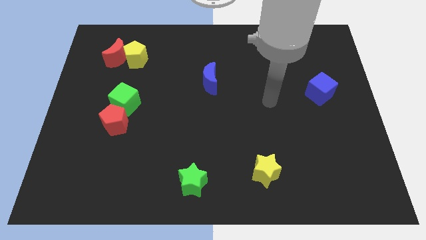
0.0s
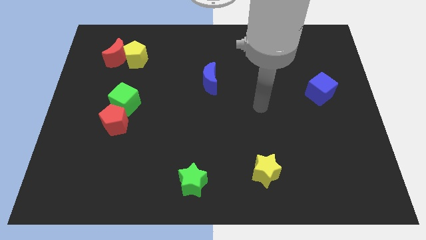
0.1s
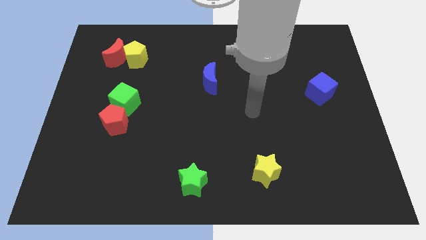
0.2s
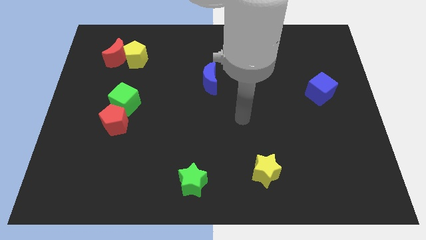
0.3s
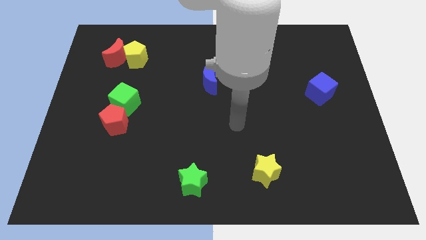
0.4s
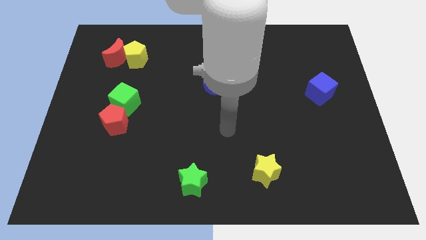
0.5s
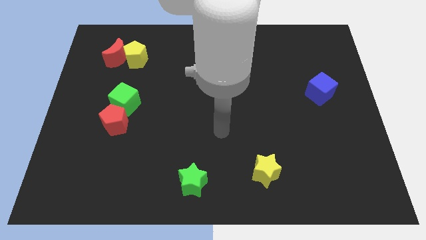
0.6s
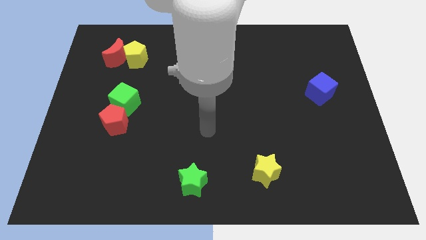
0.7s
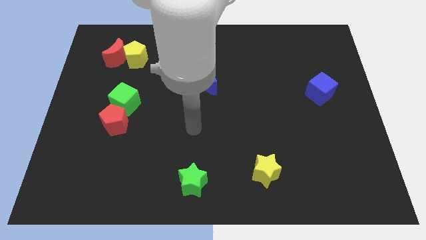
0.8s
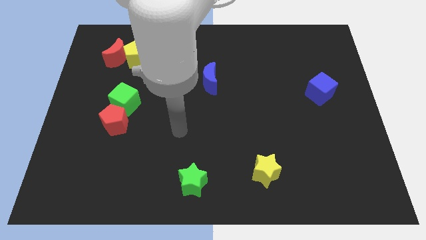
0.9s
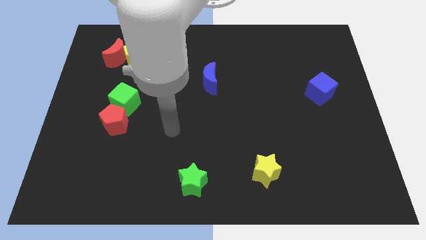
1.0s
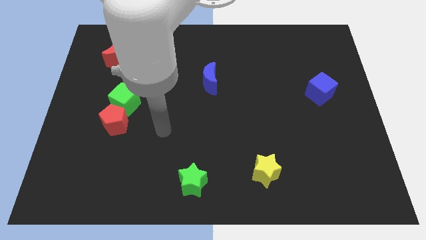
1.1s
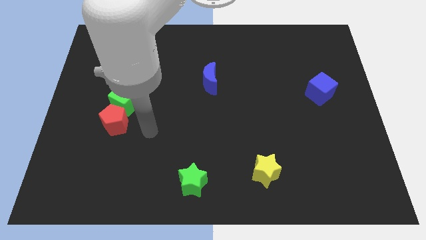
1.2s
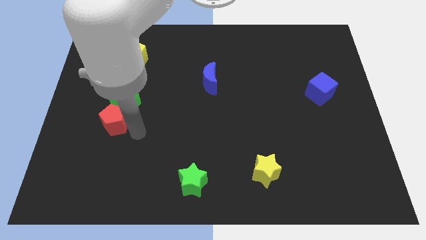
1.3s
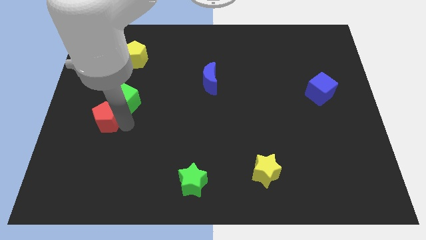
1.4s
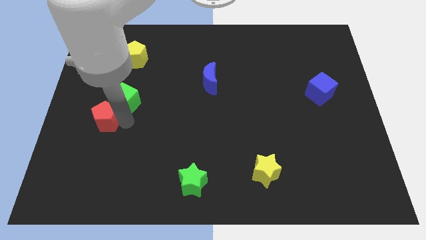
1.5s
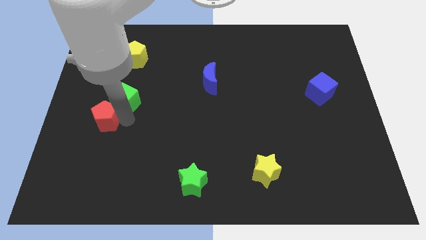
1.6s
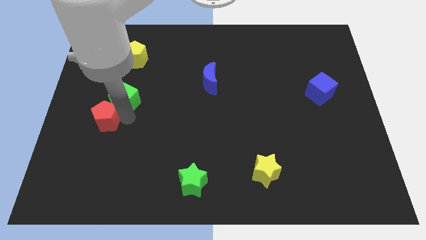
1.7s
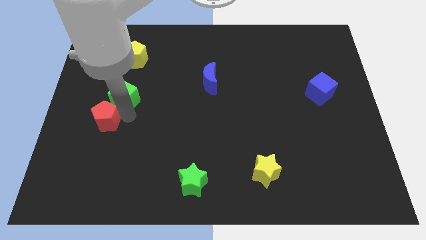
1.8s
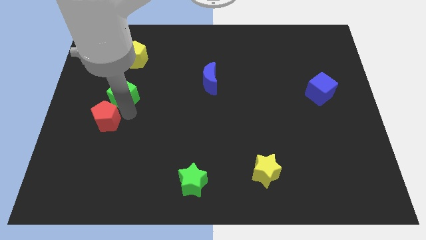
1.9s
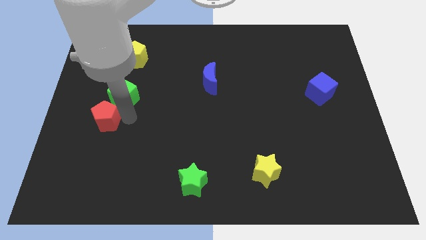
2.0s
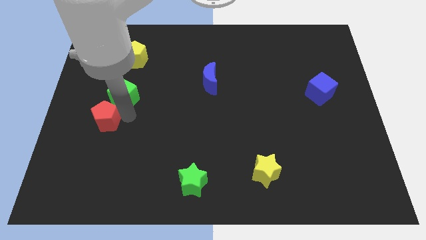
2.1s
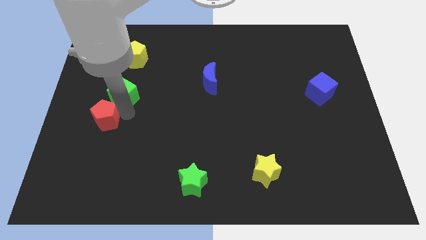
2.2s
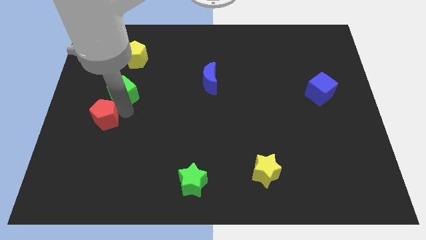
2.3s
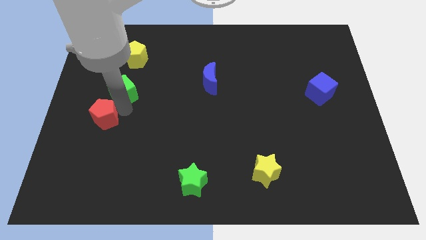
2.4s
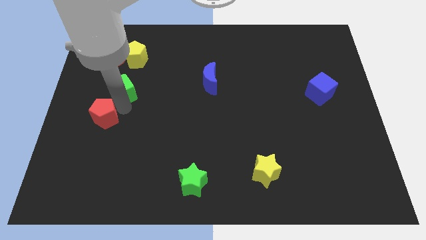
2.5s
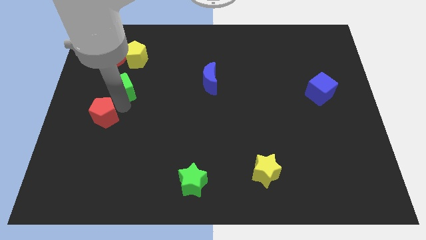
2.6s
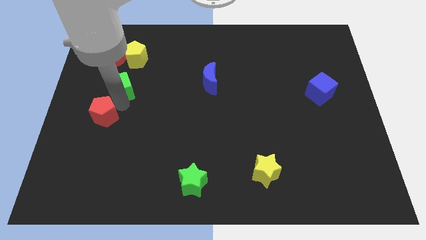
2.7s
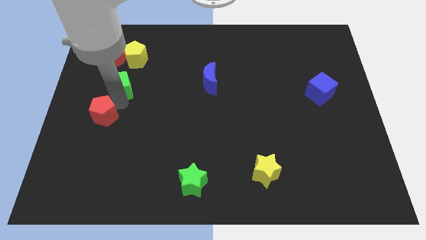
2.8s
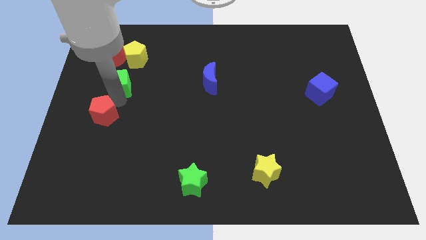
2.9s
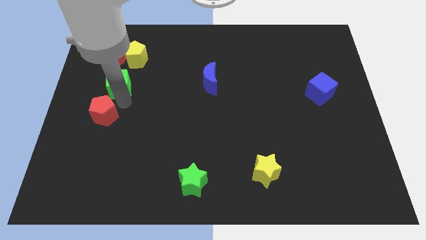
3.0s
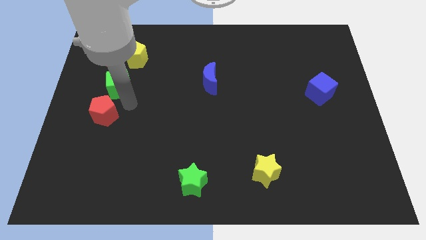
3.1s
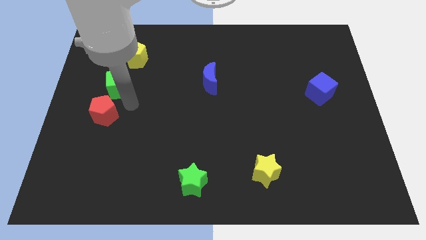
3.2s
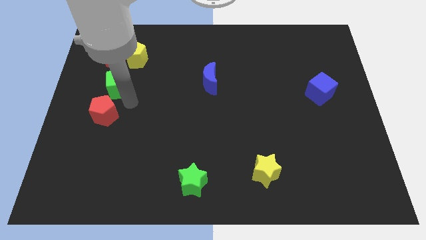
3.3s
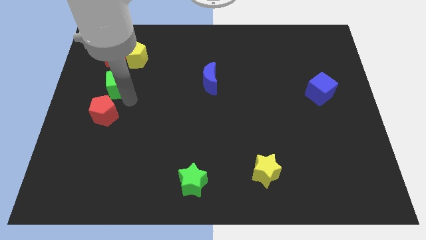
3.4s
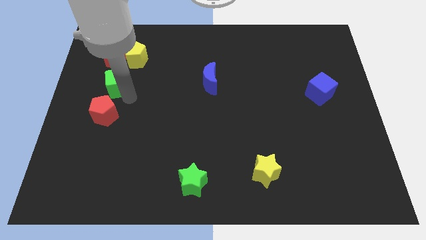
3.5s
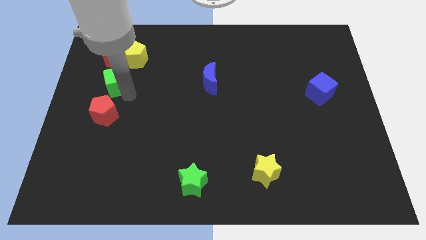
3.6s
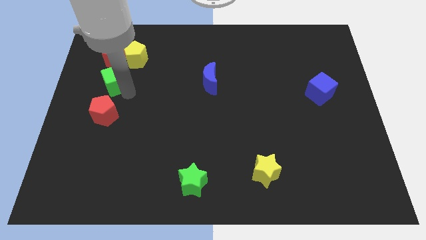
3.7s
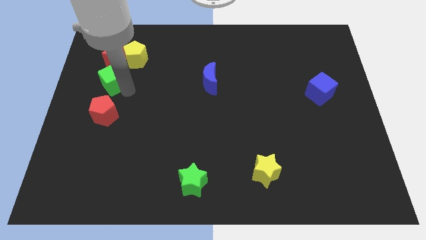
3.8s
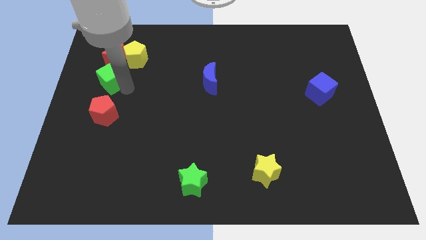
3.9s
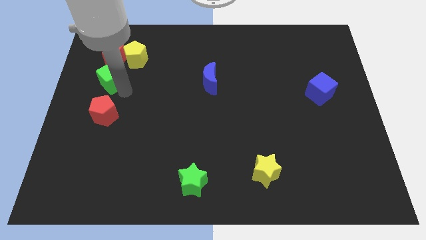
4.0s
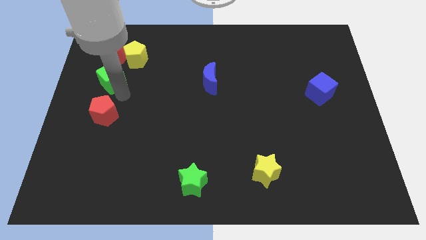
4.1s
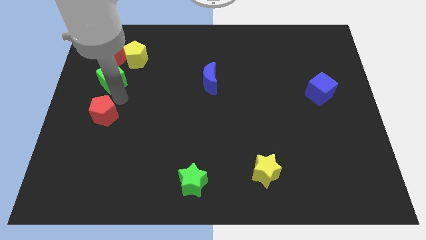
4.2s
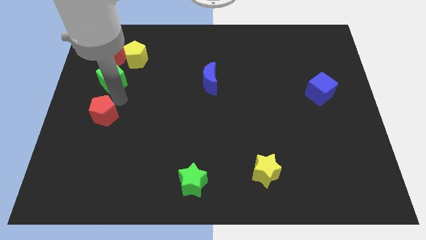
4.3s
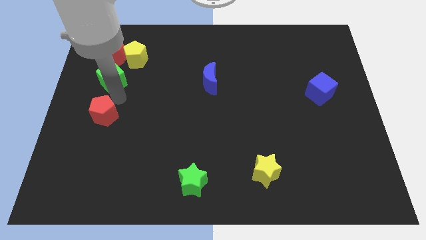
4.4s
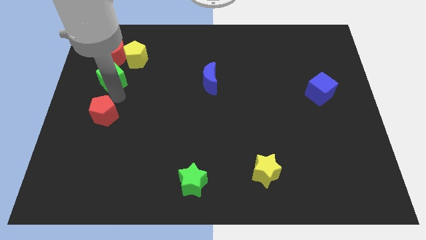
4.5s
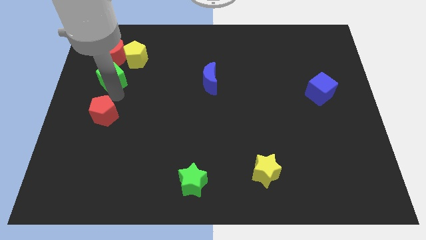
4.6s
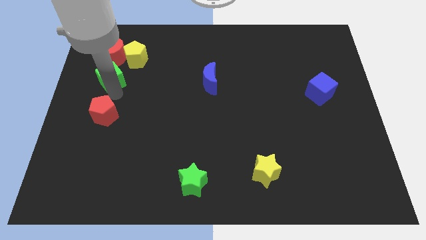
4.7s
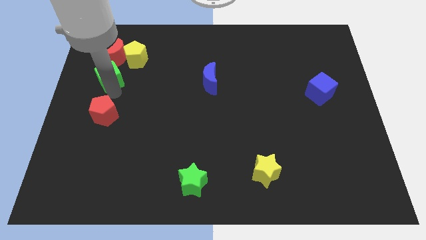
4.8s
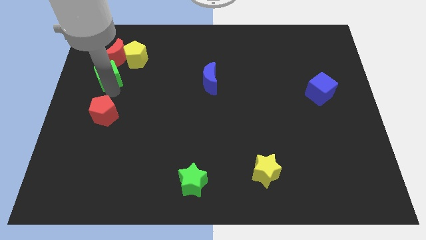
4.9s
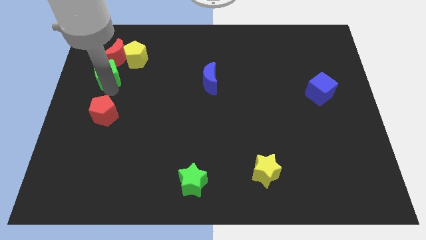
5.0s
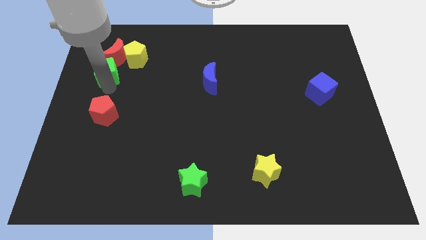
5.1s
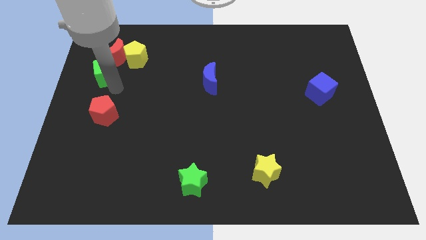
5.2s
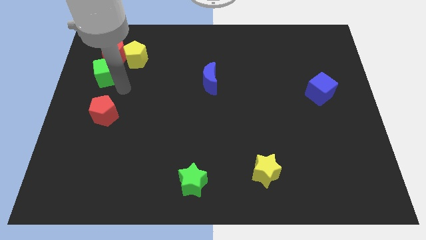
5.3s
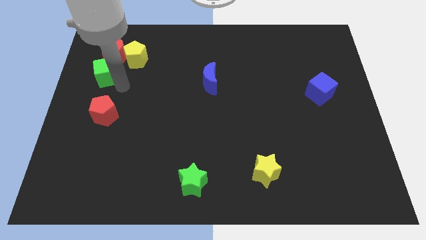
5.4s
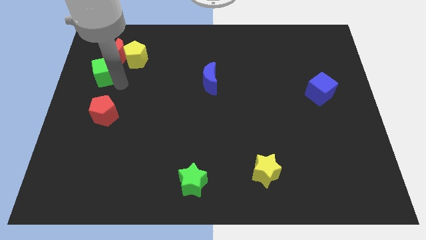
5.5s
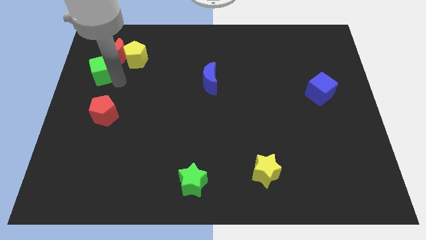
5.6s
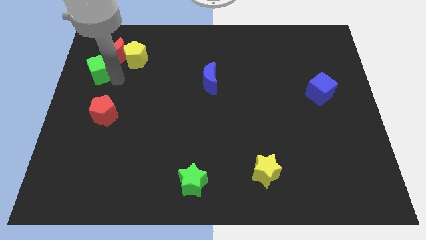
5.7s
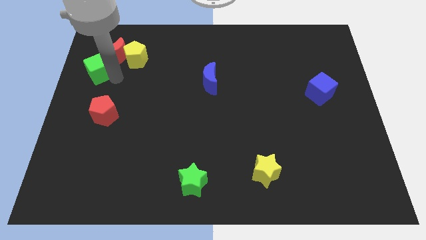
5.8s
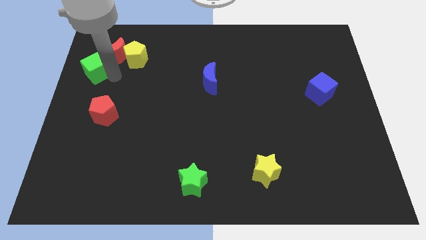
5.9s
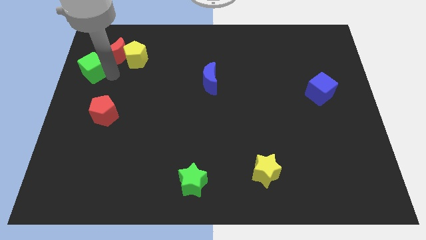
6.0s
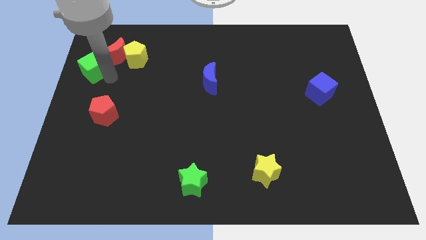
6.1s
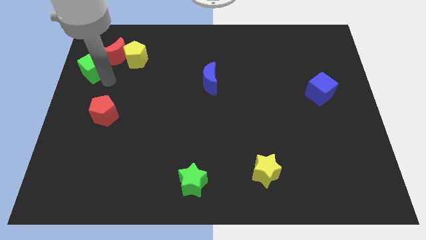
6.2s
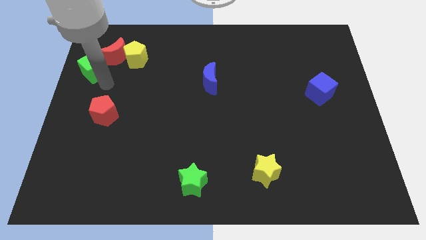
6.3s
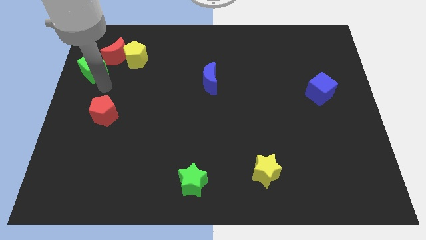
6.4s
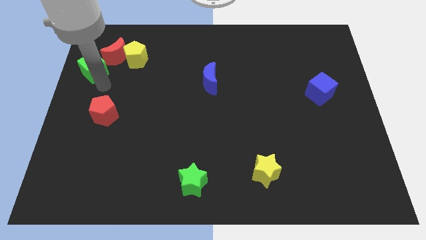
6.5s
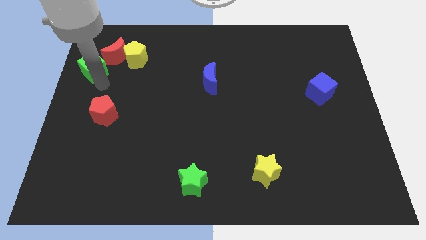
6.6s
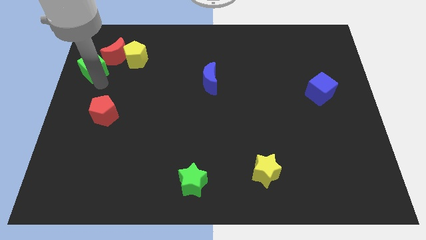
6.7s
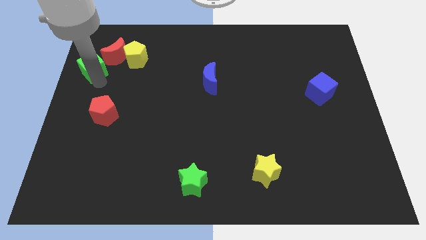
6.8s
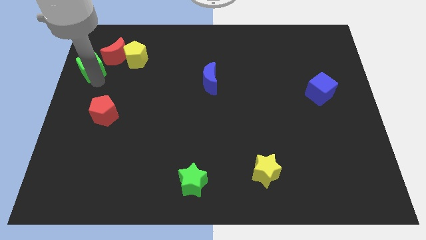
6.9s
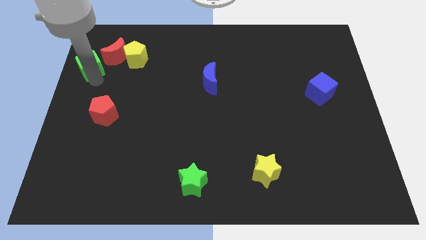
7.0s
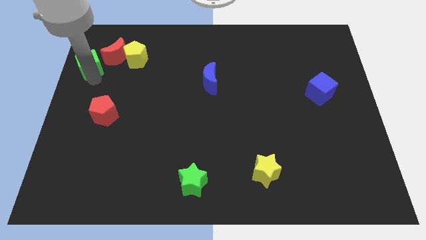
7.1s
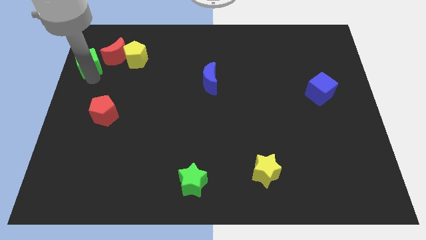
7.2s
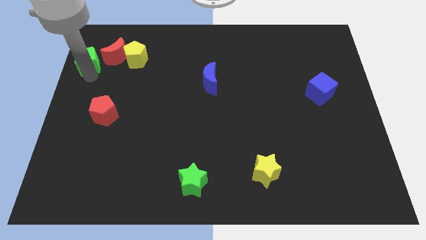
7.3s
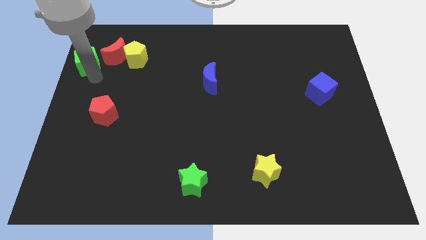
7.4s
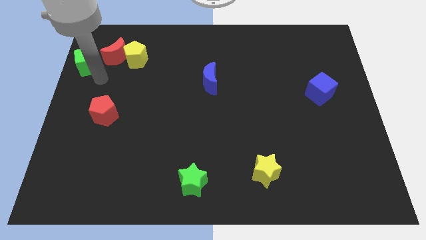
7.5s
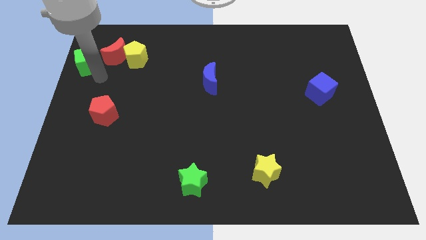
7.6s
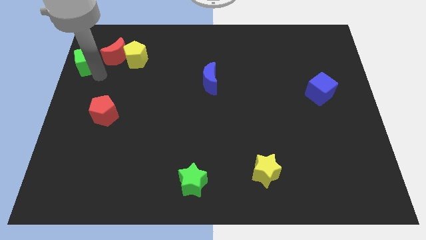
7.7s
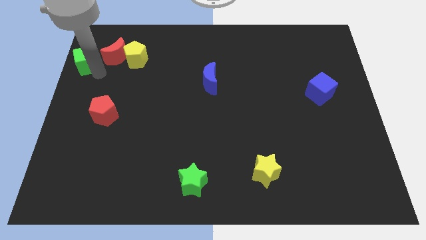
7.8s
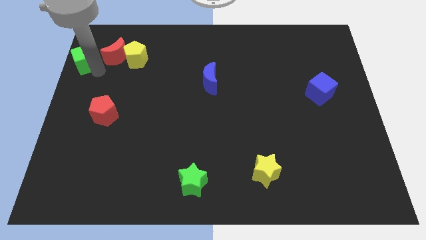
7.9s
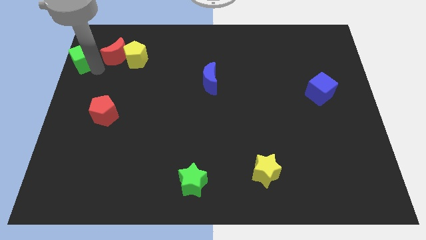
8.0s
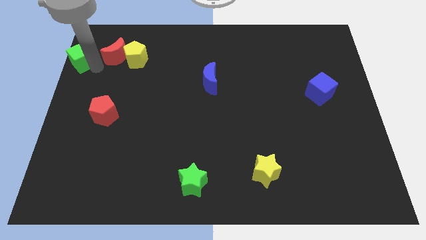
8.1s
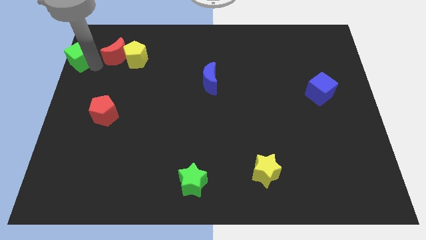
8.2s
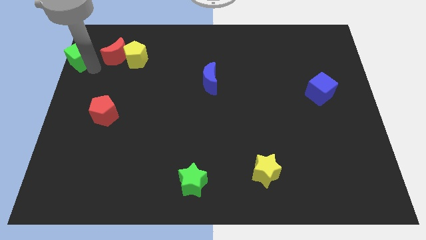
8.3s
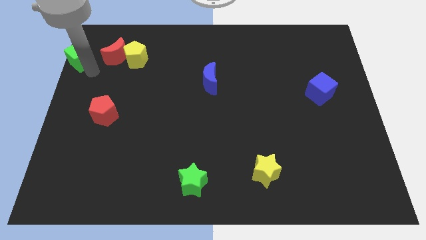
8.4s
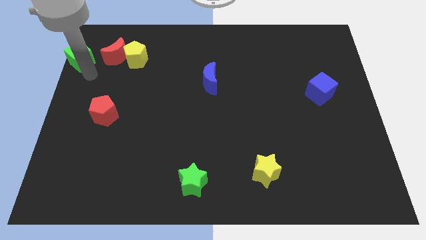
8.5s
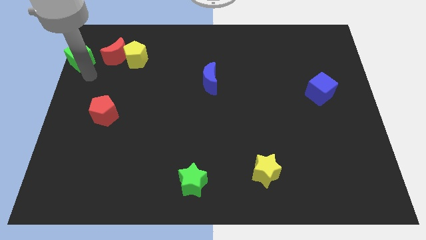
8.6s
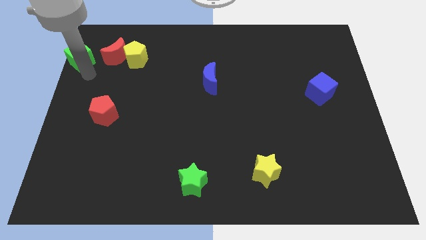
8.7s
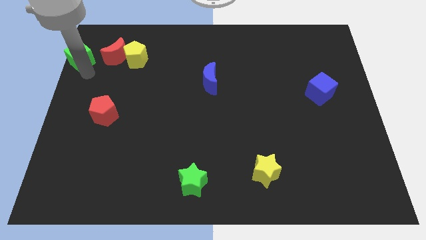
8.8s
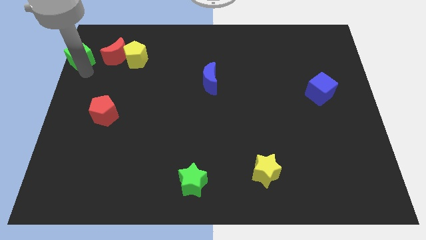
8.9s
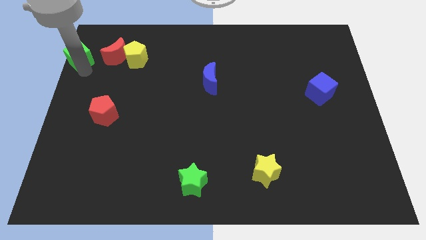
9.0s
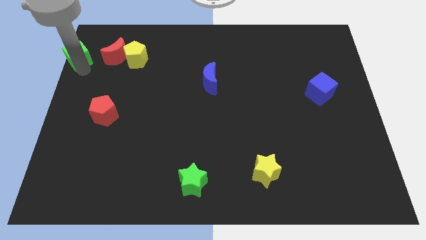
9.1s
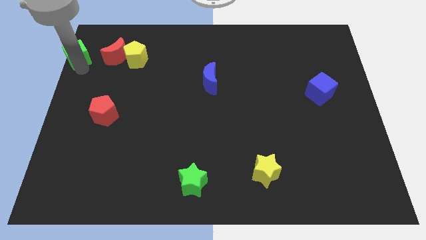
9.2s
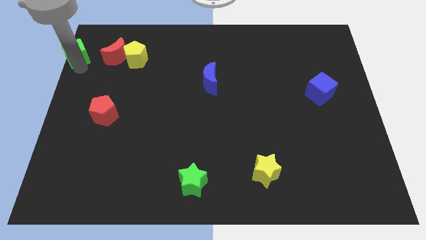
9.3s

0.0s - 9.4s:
push the green cube to the upper left corner
